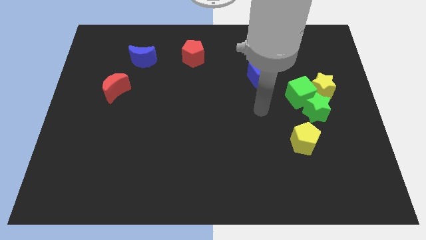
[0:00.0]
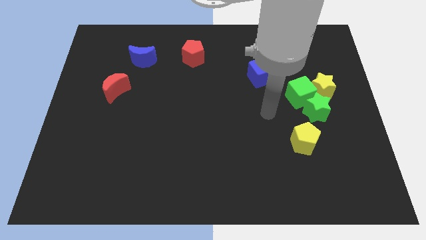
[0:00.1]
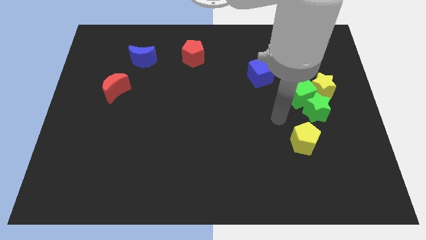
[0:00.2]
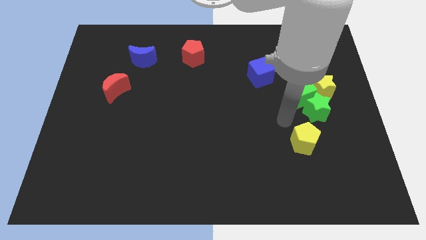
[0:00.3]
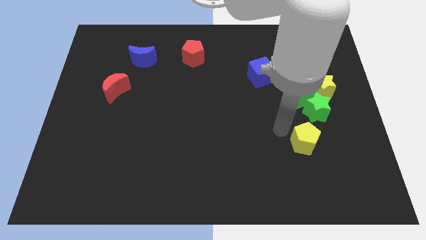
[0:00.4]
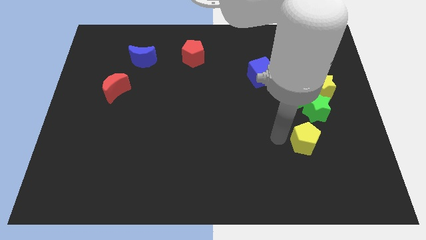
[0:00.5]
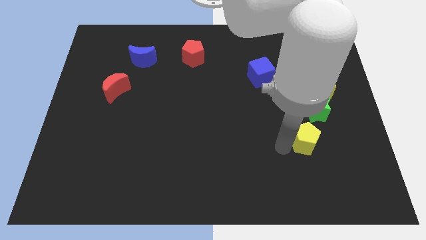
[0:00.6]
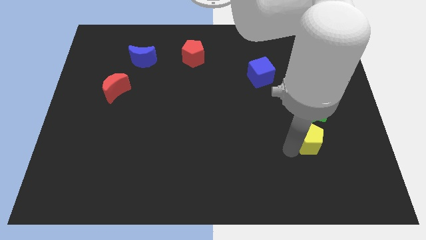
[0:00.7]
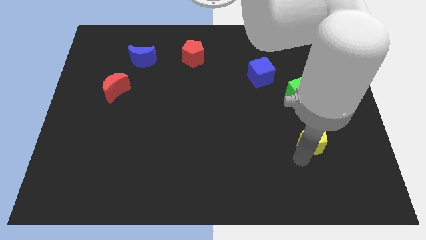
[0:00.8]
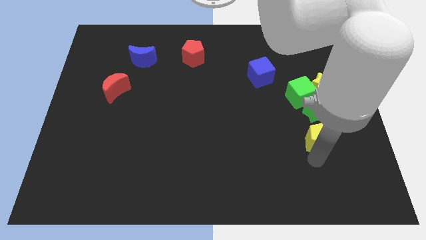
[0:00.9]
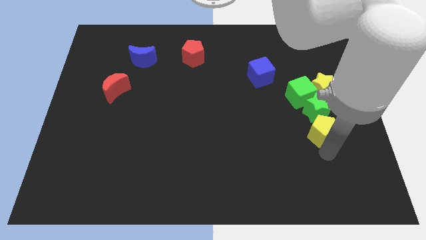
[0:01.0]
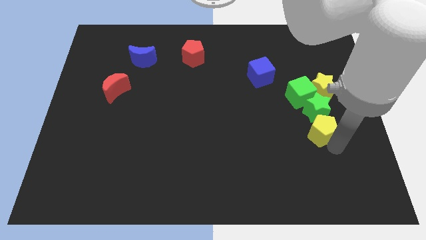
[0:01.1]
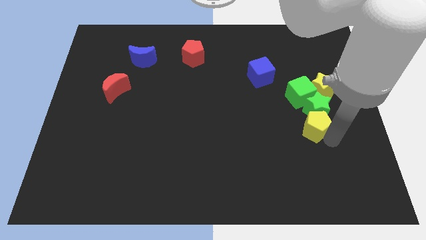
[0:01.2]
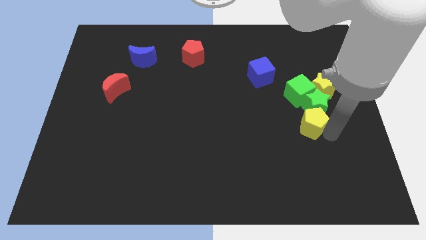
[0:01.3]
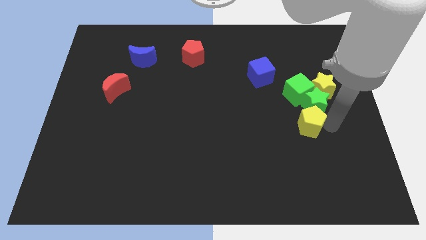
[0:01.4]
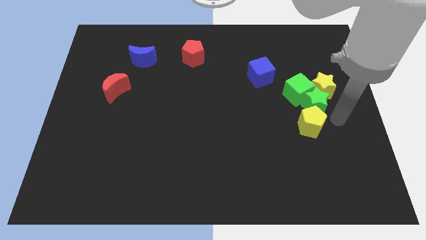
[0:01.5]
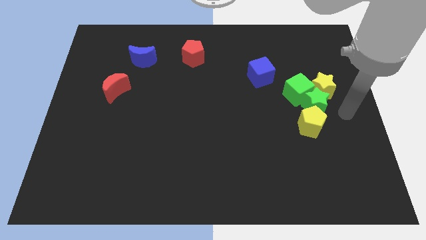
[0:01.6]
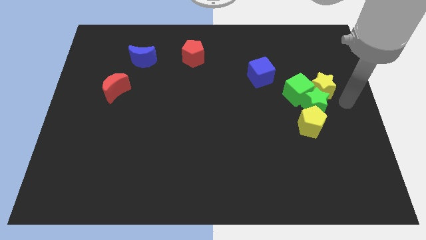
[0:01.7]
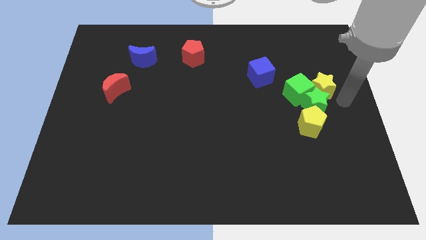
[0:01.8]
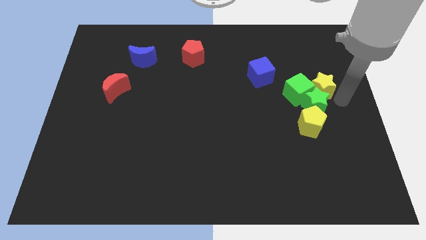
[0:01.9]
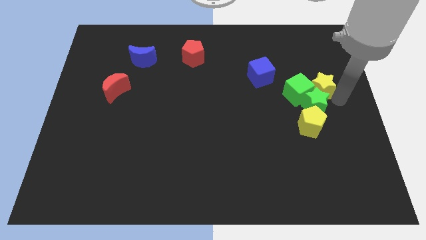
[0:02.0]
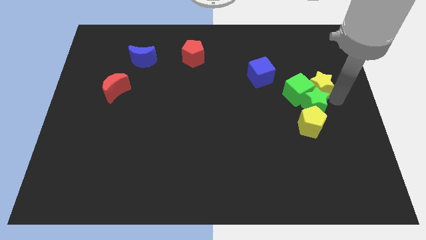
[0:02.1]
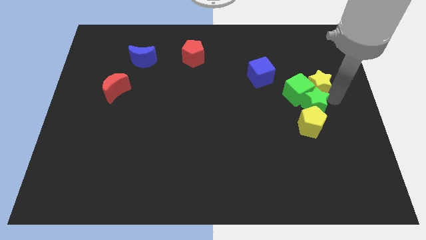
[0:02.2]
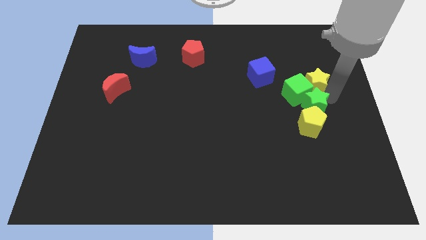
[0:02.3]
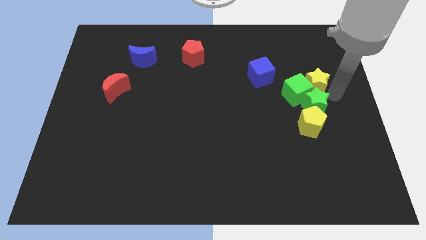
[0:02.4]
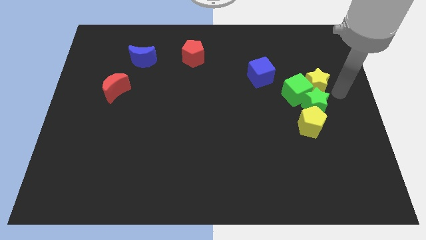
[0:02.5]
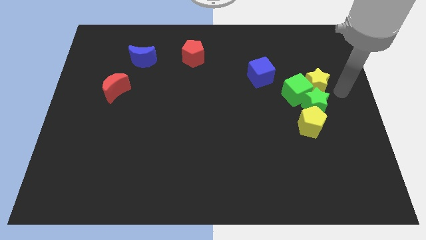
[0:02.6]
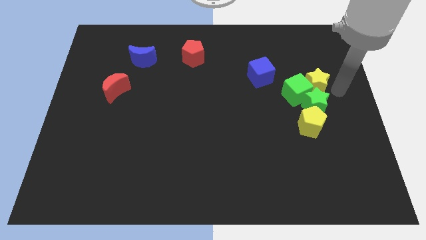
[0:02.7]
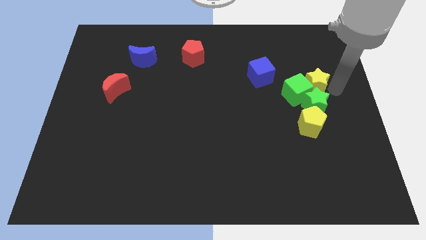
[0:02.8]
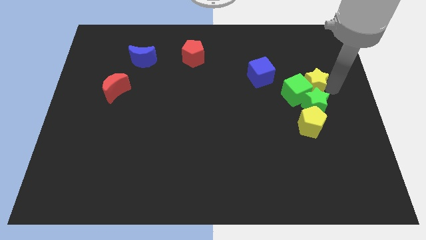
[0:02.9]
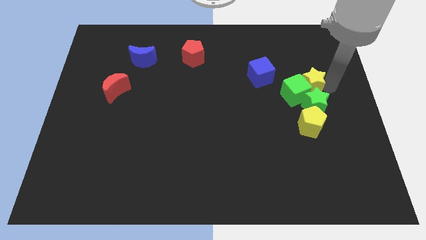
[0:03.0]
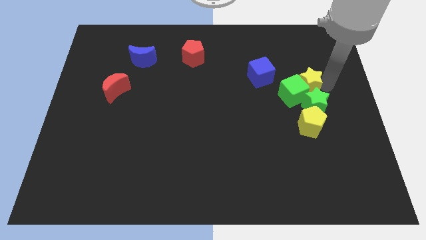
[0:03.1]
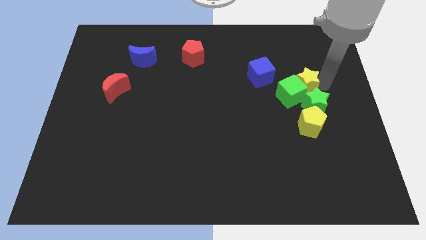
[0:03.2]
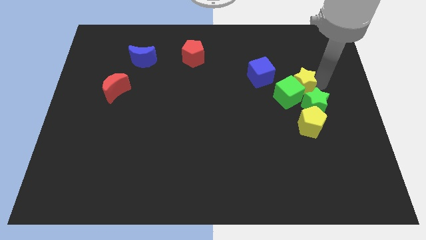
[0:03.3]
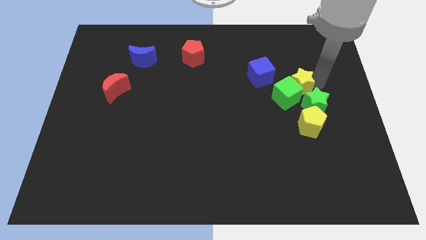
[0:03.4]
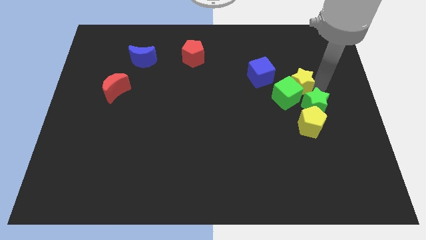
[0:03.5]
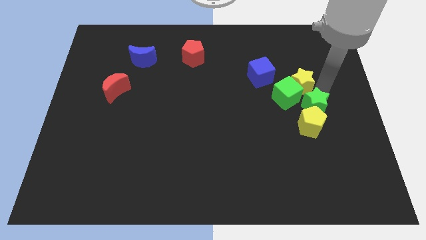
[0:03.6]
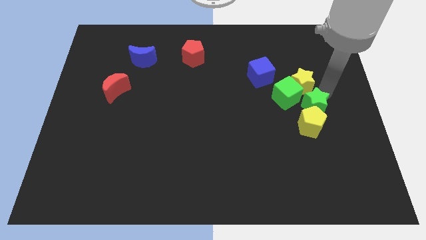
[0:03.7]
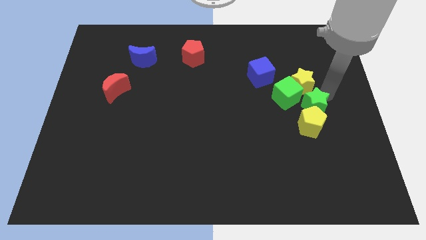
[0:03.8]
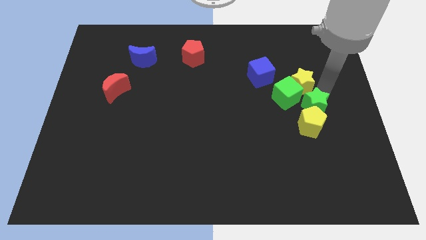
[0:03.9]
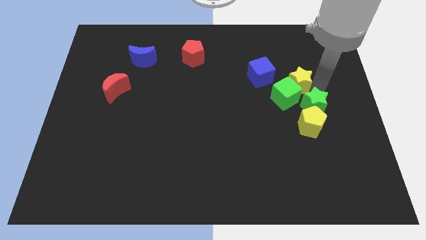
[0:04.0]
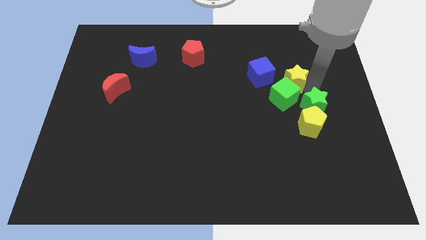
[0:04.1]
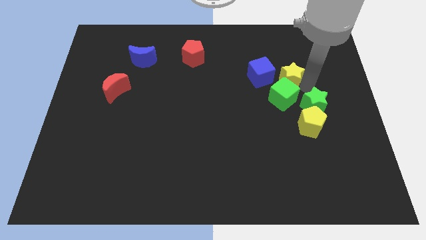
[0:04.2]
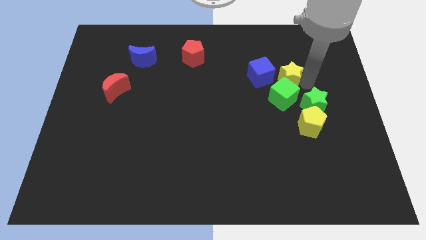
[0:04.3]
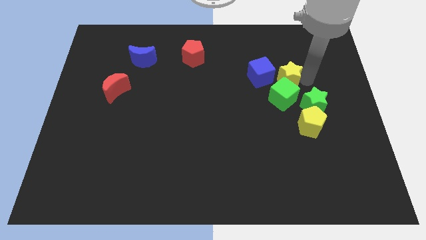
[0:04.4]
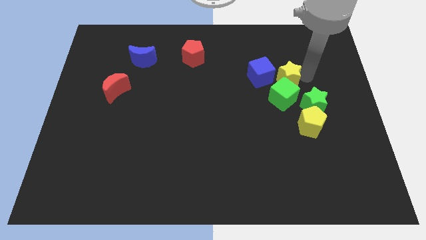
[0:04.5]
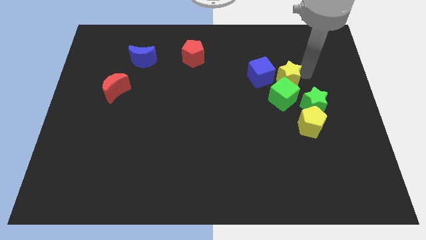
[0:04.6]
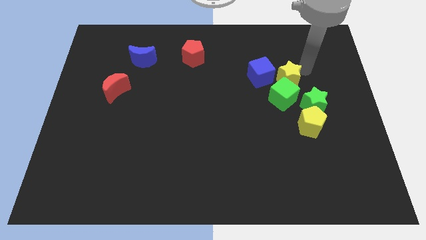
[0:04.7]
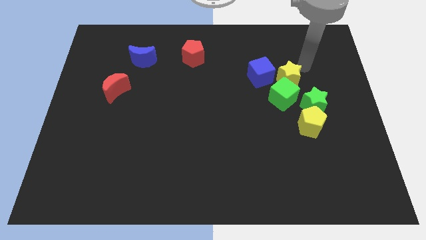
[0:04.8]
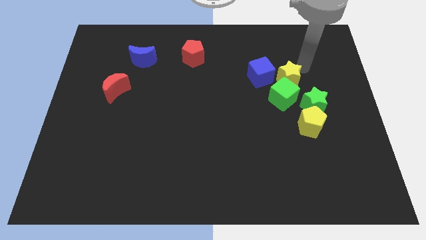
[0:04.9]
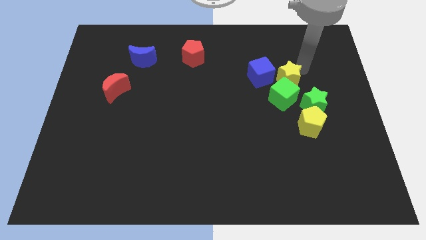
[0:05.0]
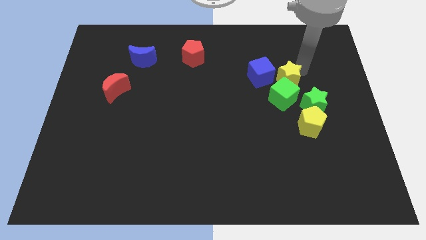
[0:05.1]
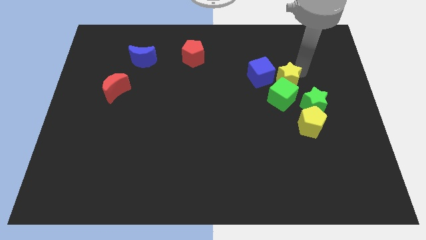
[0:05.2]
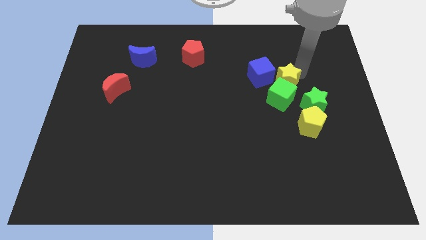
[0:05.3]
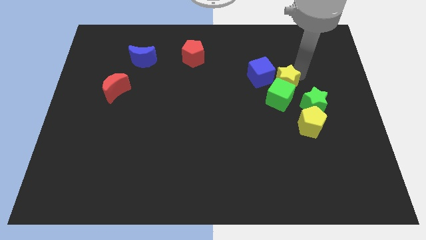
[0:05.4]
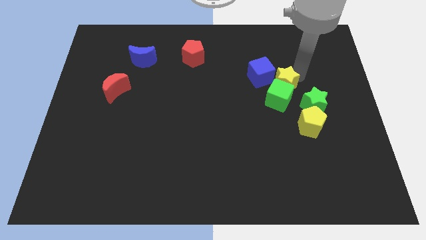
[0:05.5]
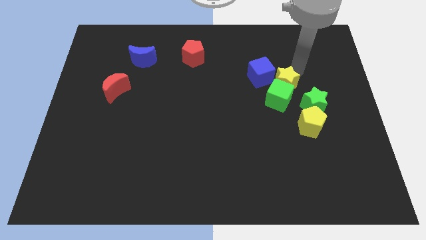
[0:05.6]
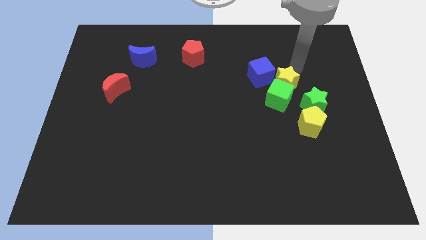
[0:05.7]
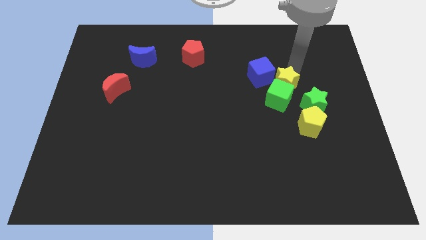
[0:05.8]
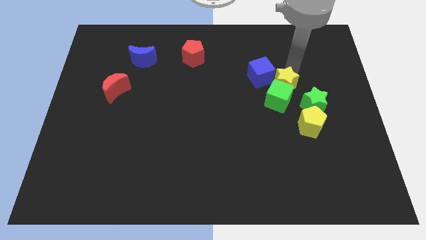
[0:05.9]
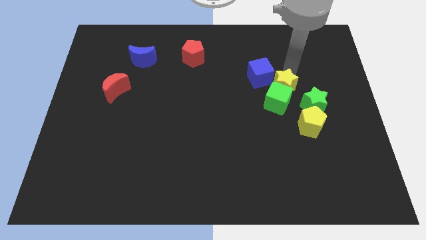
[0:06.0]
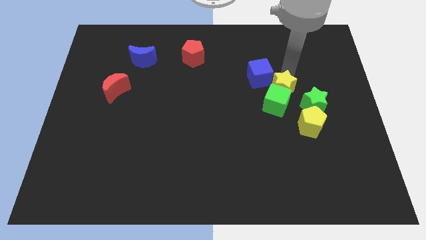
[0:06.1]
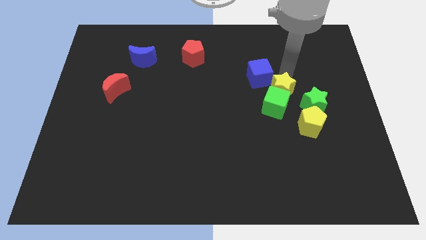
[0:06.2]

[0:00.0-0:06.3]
move the yellow star to the top left of the yellow pentagon

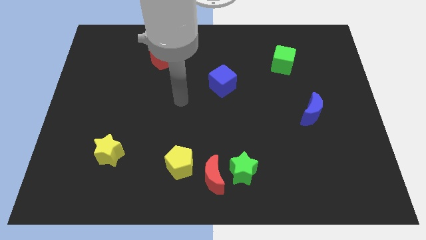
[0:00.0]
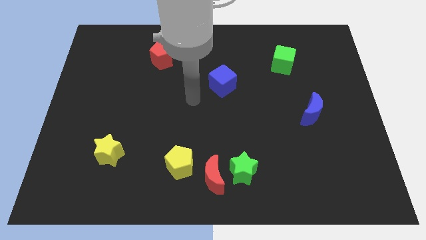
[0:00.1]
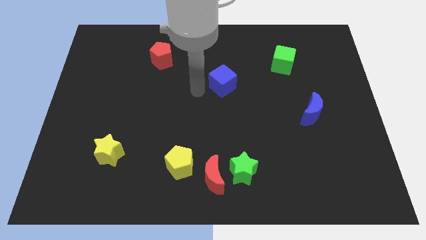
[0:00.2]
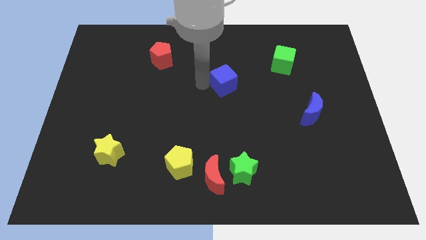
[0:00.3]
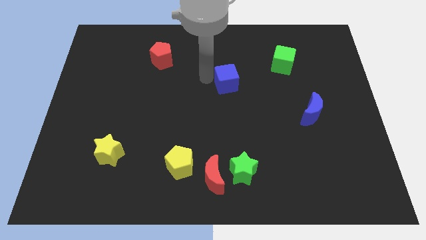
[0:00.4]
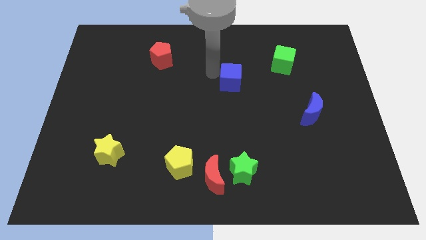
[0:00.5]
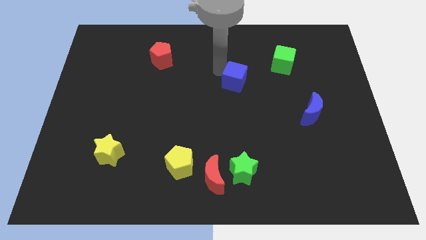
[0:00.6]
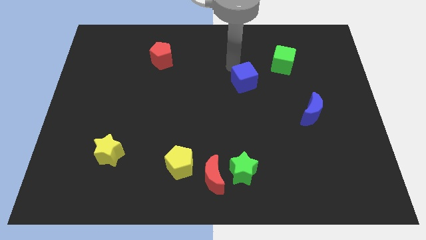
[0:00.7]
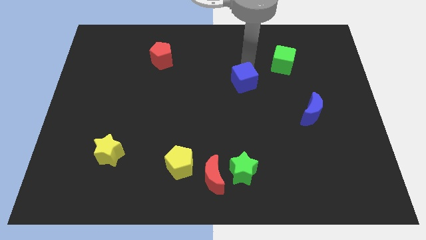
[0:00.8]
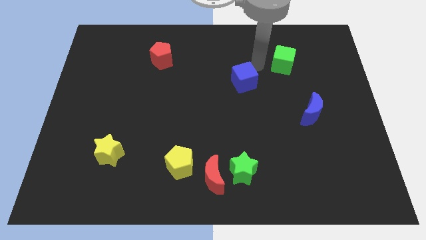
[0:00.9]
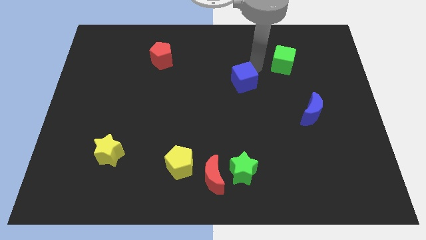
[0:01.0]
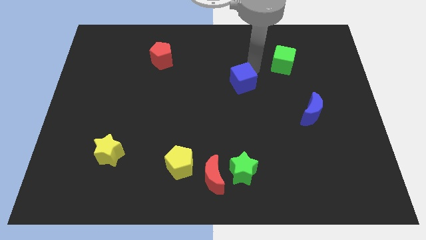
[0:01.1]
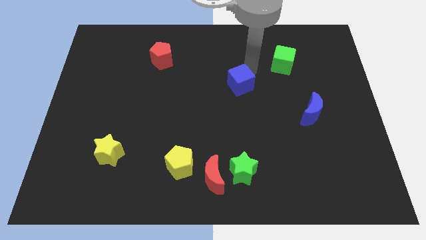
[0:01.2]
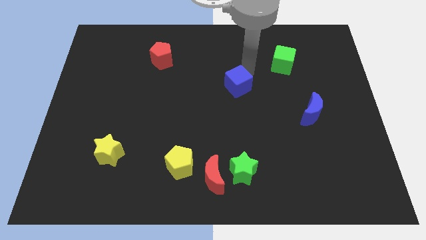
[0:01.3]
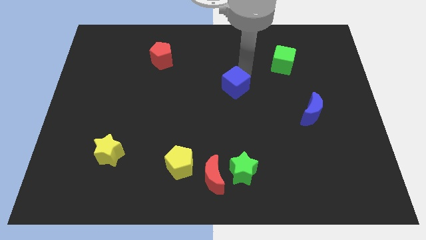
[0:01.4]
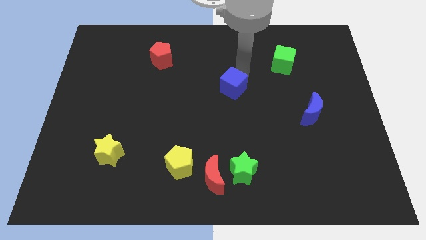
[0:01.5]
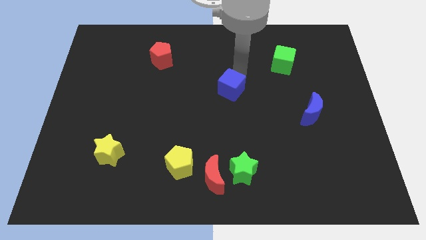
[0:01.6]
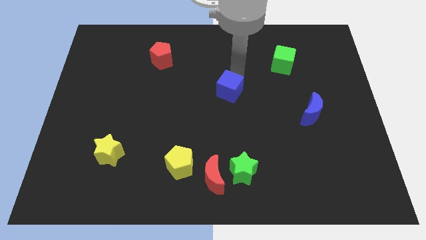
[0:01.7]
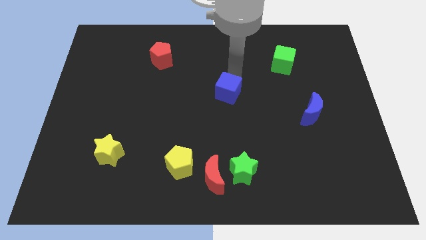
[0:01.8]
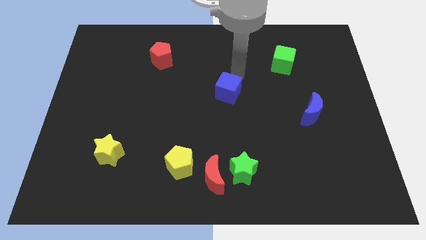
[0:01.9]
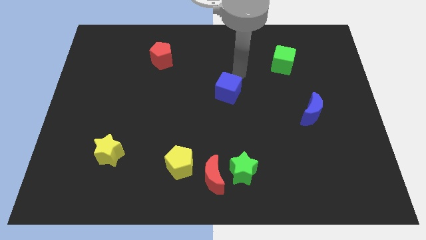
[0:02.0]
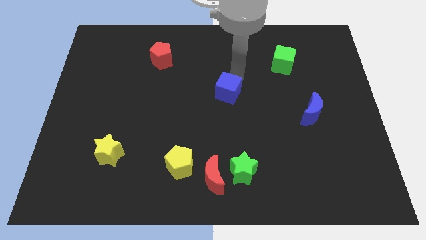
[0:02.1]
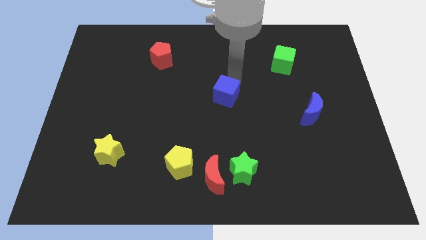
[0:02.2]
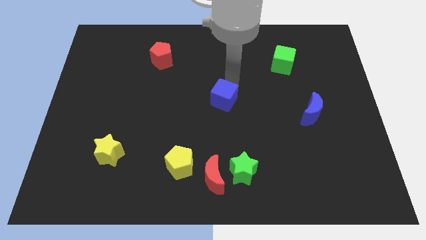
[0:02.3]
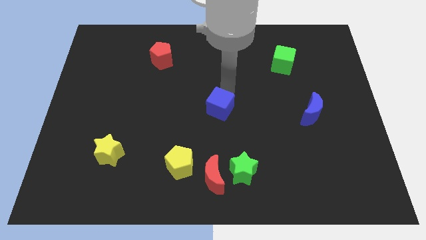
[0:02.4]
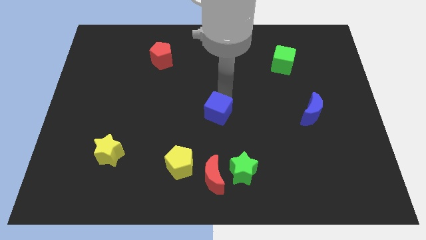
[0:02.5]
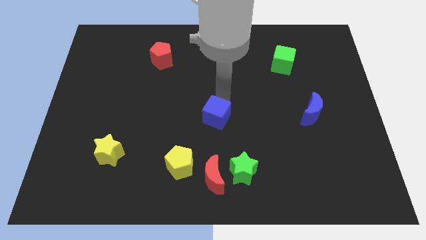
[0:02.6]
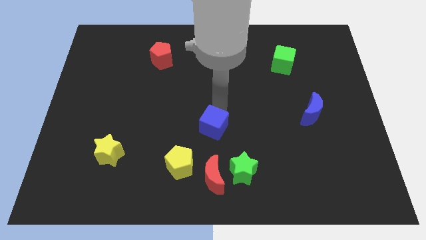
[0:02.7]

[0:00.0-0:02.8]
slide the blue cube to the top right of the yellow pentagon
